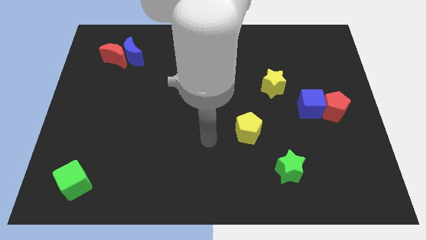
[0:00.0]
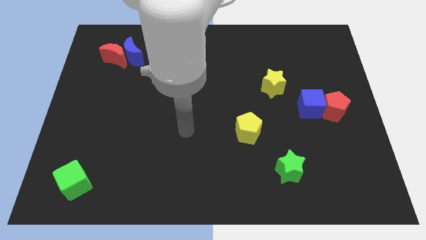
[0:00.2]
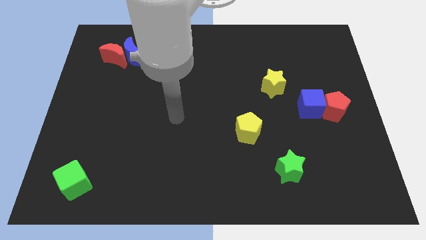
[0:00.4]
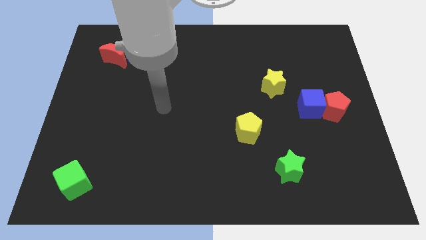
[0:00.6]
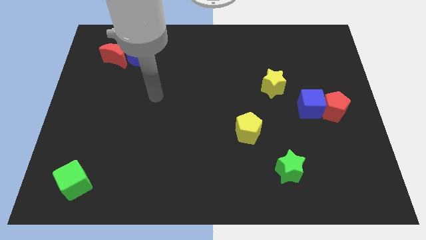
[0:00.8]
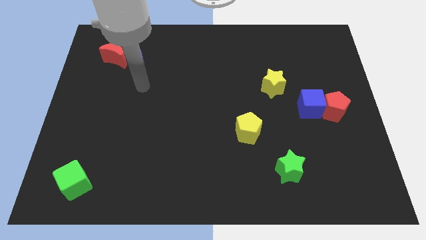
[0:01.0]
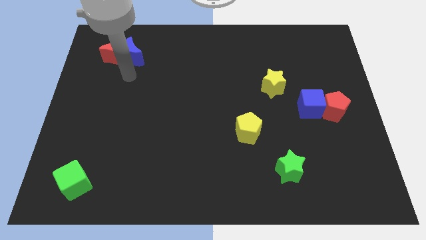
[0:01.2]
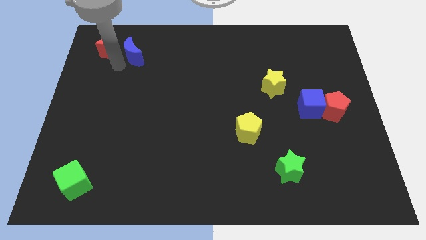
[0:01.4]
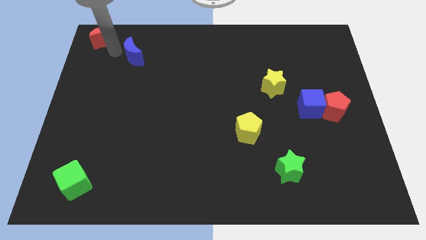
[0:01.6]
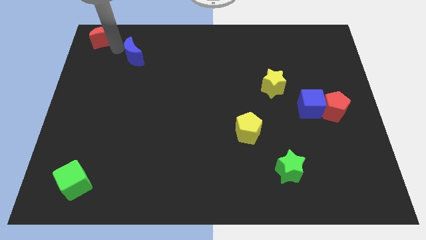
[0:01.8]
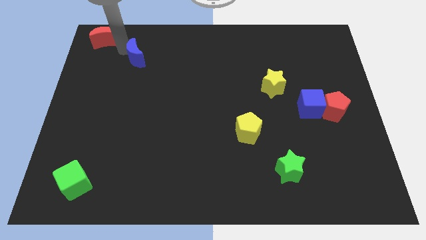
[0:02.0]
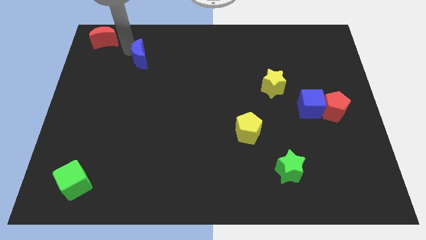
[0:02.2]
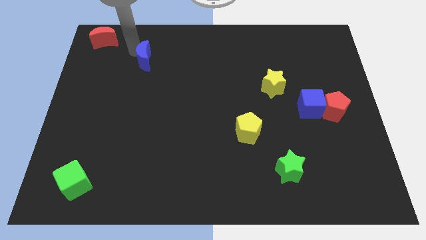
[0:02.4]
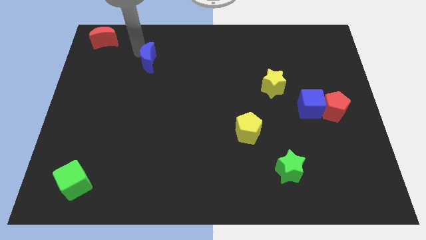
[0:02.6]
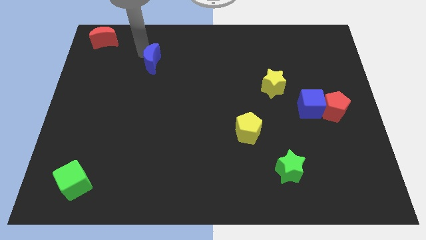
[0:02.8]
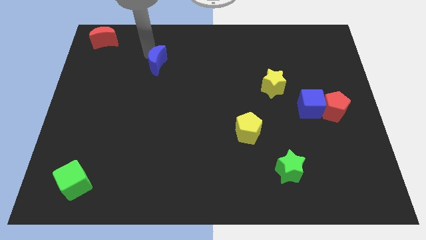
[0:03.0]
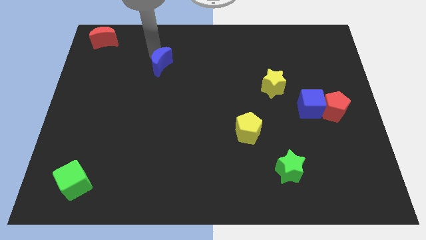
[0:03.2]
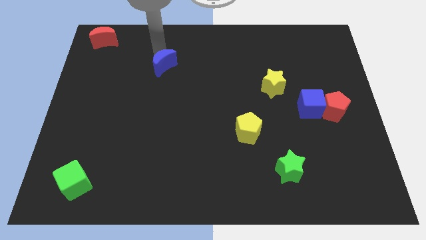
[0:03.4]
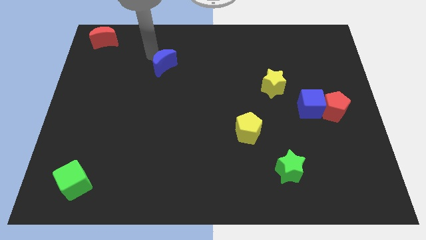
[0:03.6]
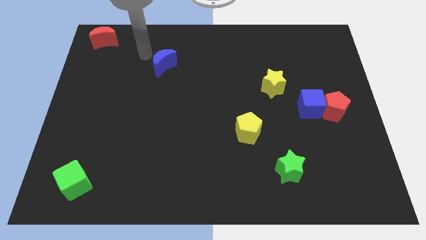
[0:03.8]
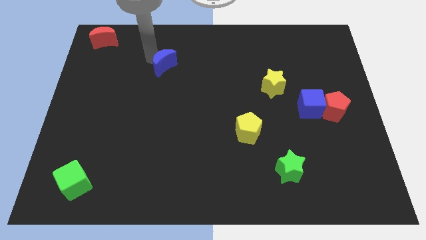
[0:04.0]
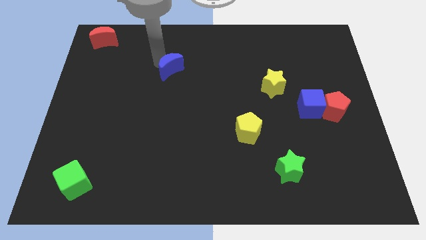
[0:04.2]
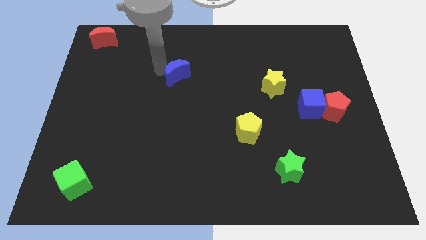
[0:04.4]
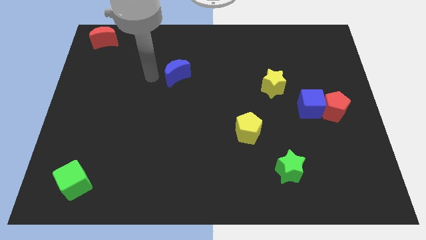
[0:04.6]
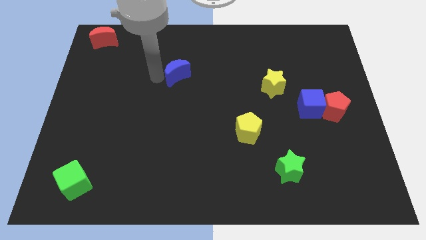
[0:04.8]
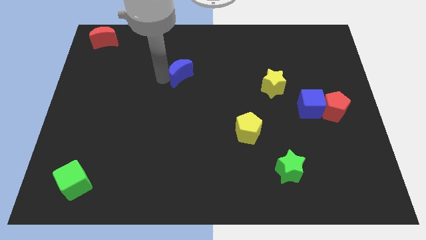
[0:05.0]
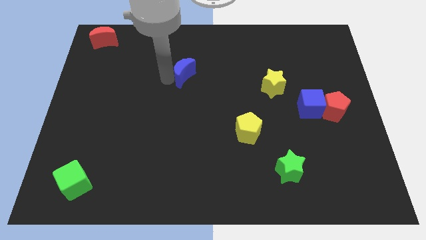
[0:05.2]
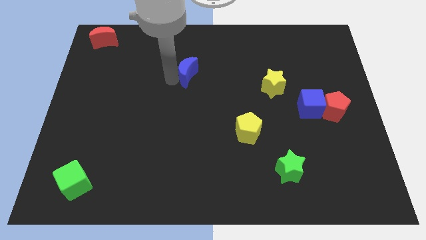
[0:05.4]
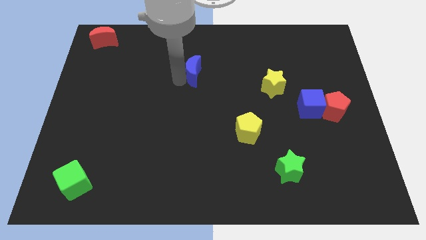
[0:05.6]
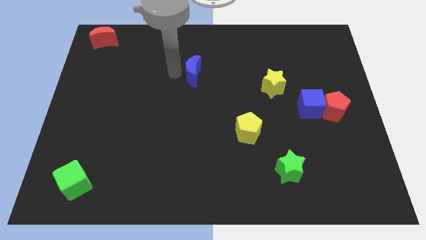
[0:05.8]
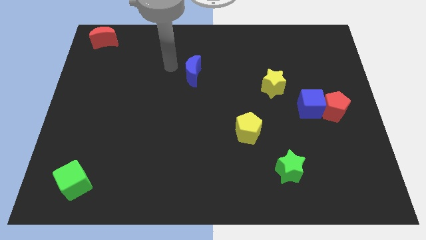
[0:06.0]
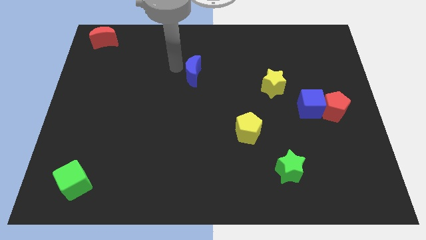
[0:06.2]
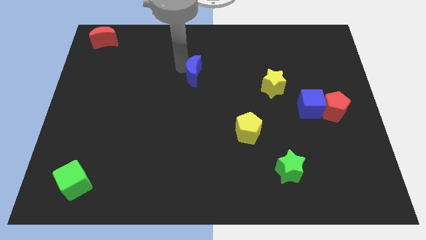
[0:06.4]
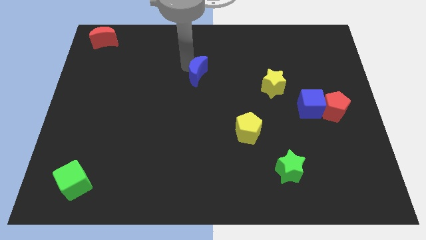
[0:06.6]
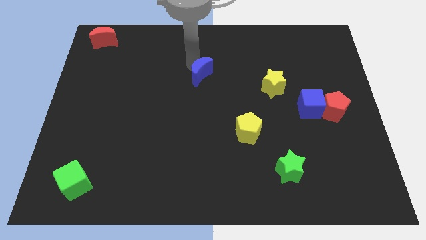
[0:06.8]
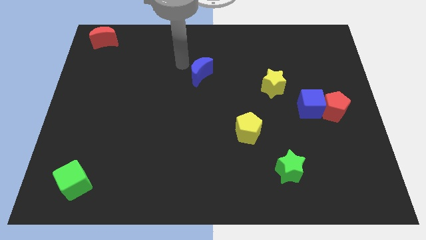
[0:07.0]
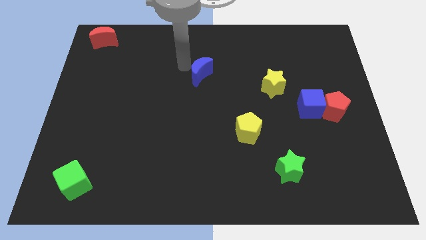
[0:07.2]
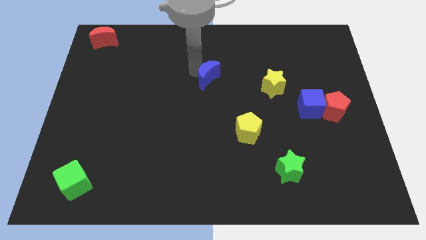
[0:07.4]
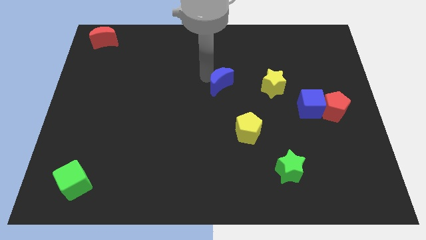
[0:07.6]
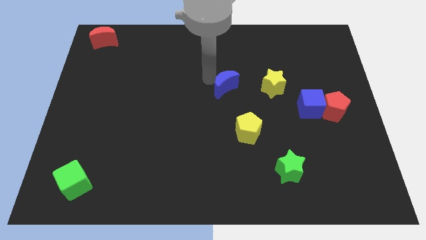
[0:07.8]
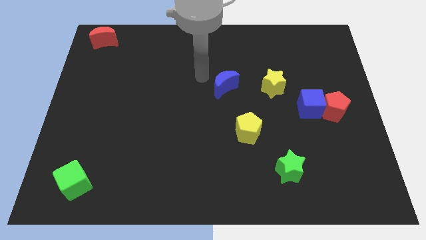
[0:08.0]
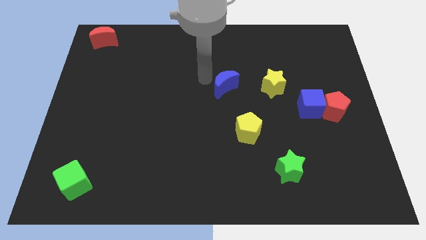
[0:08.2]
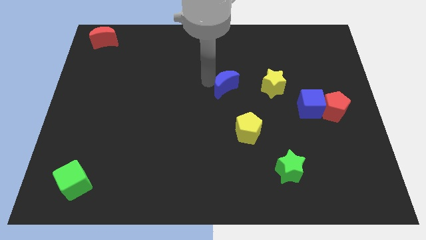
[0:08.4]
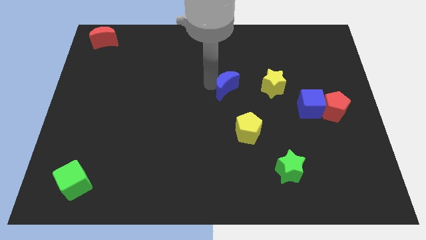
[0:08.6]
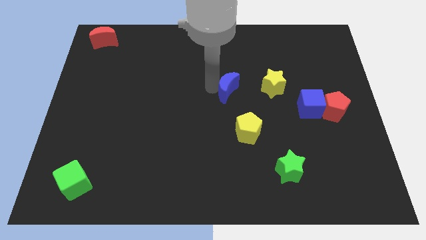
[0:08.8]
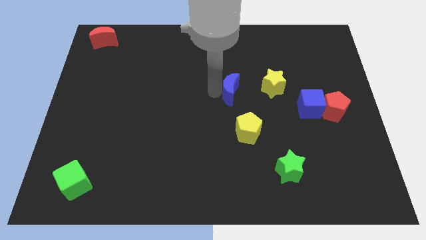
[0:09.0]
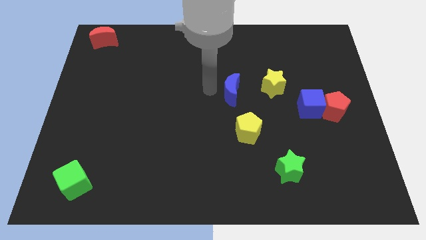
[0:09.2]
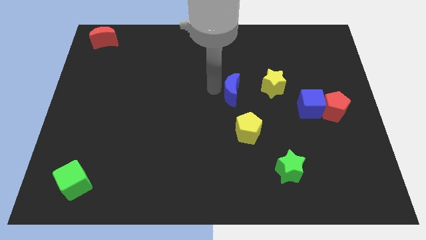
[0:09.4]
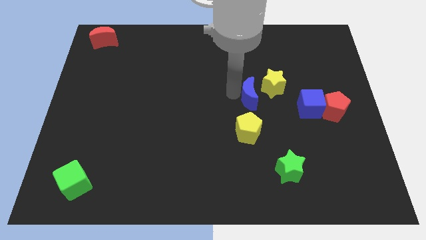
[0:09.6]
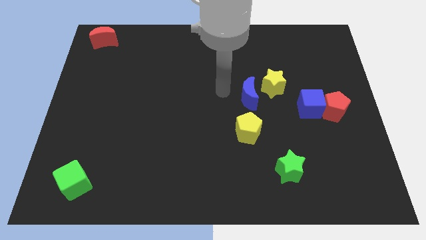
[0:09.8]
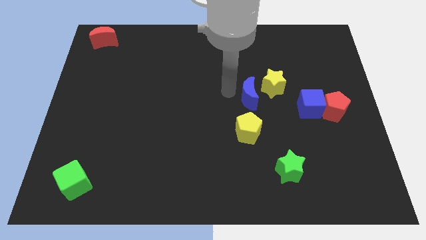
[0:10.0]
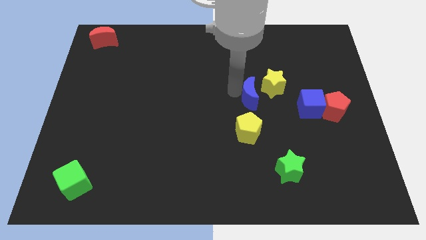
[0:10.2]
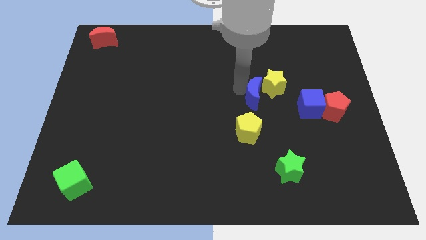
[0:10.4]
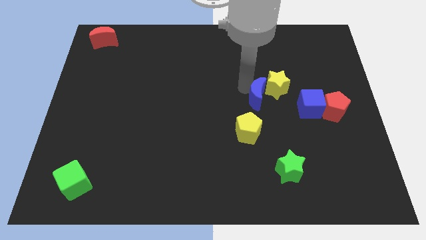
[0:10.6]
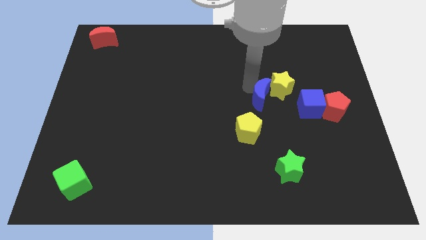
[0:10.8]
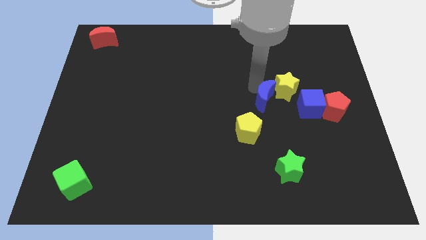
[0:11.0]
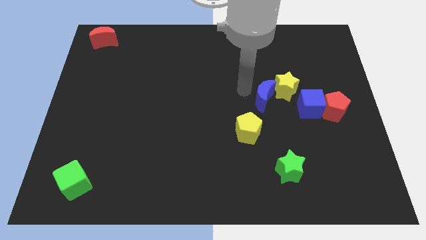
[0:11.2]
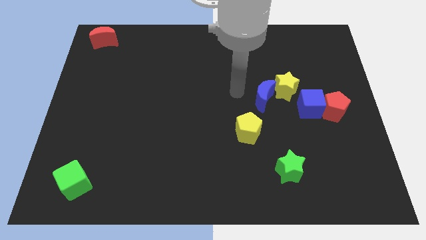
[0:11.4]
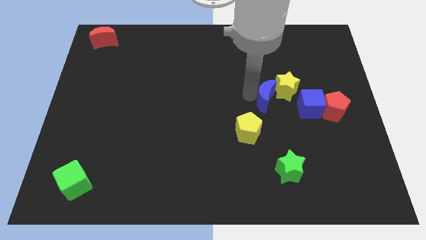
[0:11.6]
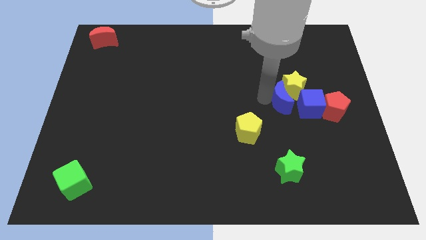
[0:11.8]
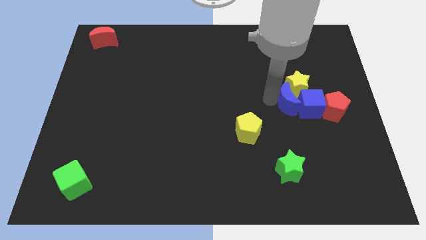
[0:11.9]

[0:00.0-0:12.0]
move the blue moon to the blue cube

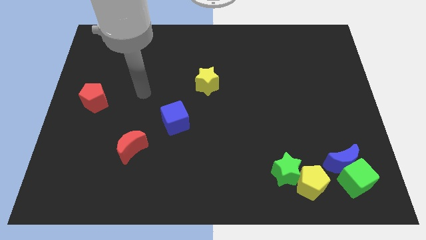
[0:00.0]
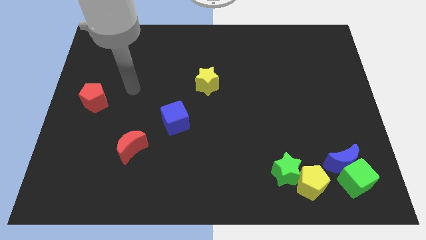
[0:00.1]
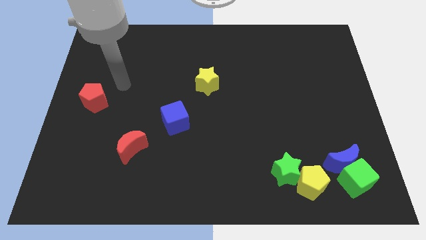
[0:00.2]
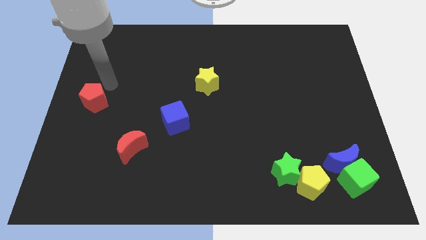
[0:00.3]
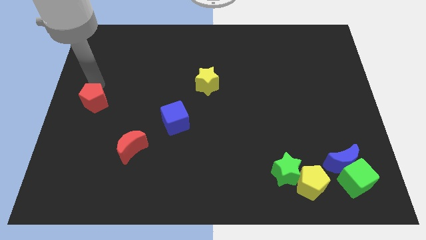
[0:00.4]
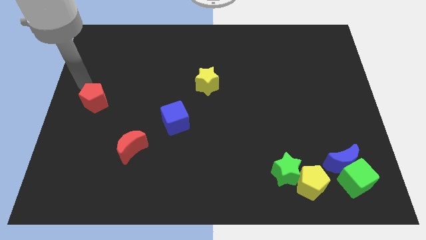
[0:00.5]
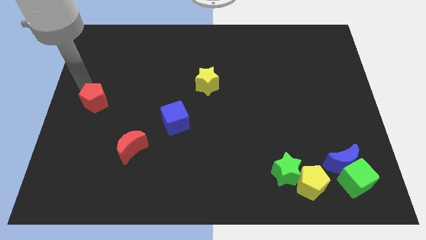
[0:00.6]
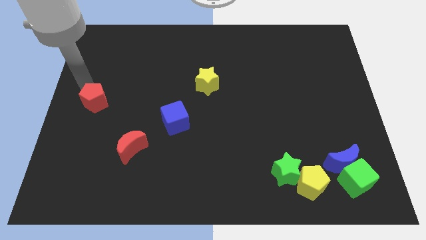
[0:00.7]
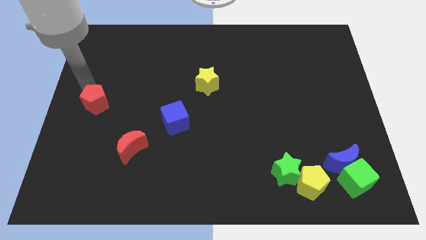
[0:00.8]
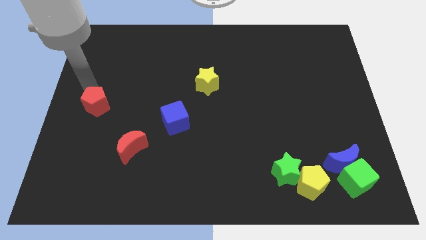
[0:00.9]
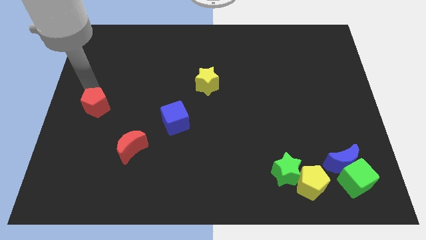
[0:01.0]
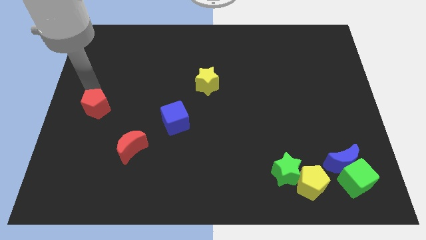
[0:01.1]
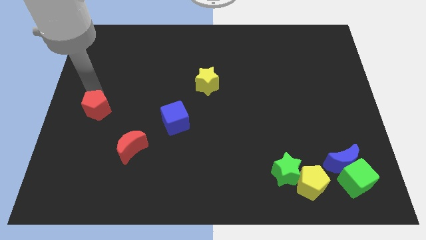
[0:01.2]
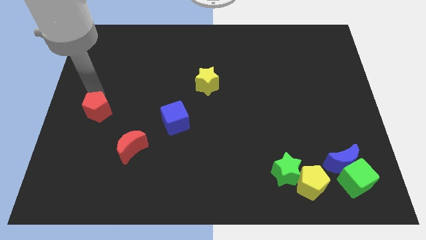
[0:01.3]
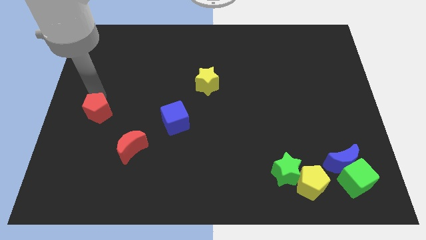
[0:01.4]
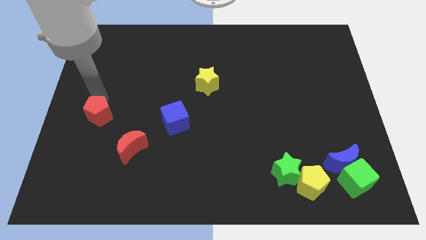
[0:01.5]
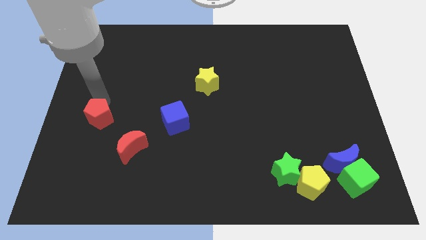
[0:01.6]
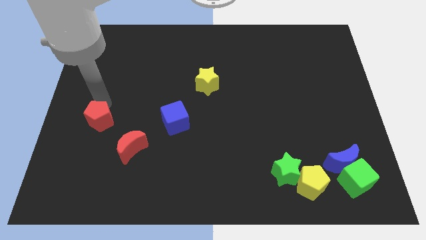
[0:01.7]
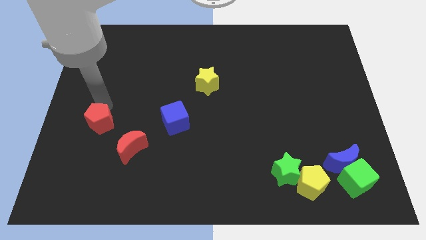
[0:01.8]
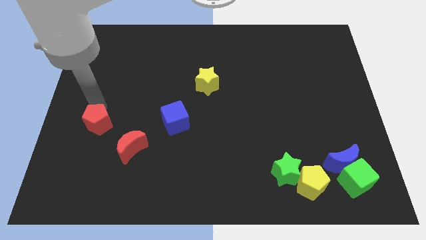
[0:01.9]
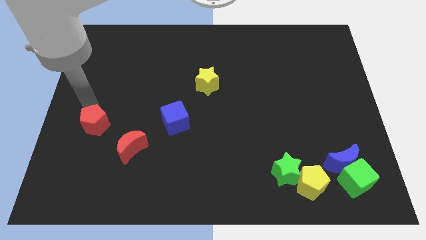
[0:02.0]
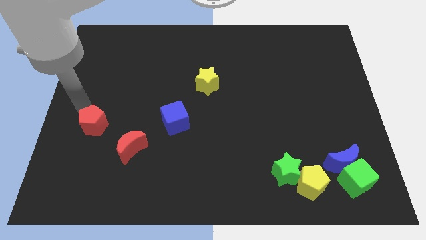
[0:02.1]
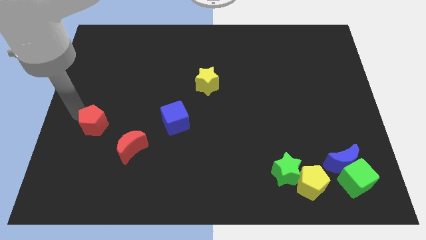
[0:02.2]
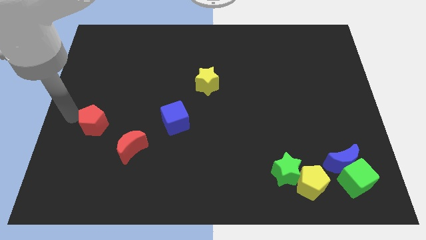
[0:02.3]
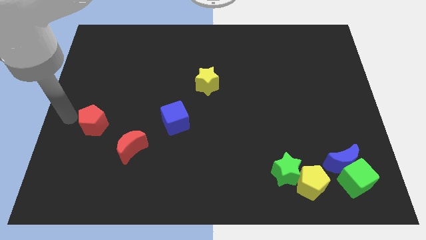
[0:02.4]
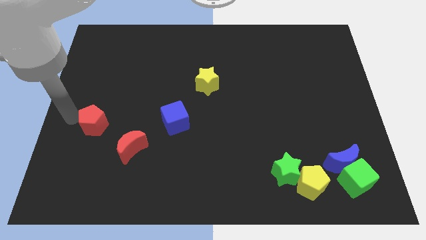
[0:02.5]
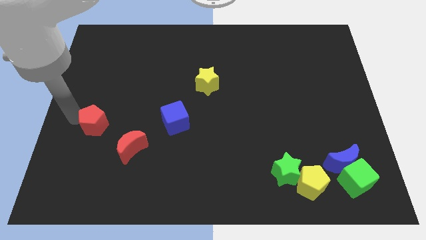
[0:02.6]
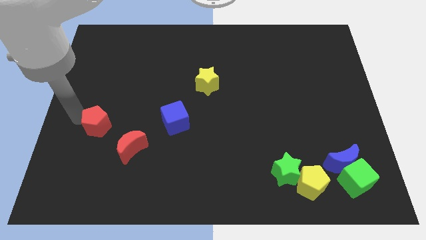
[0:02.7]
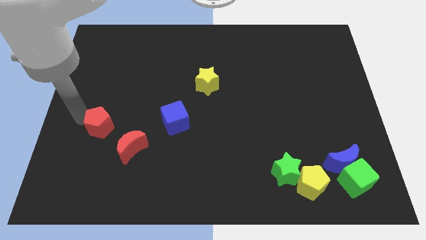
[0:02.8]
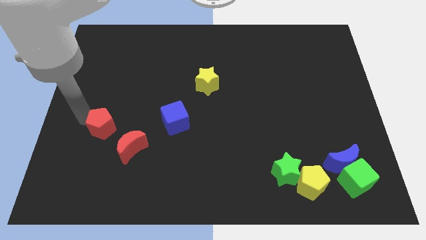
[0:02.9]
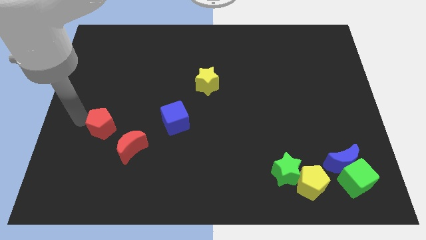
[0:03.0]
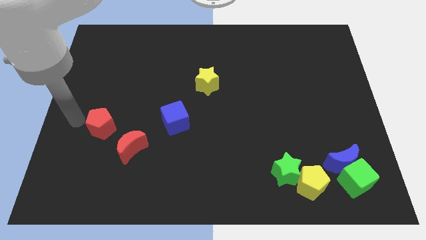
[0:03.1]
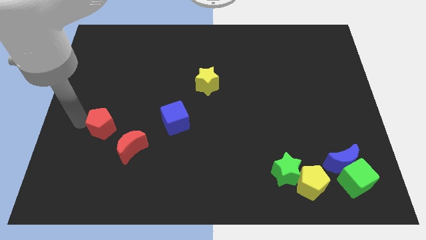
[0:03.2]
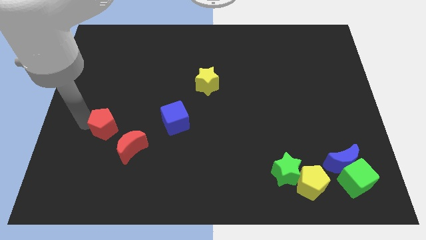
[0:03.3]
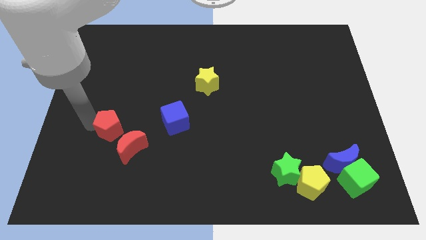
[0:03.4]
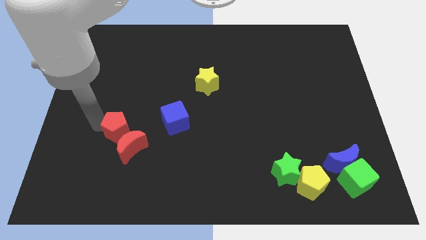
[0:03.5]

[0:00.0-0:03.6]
slide the red pentagon next to the red moon
